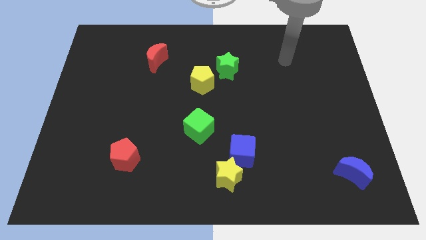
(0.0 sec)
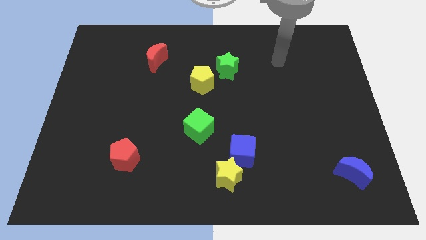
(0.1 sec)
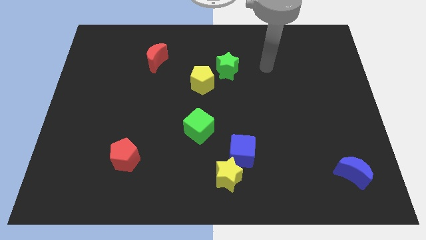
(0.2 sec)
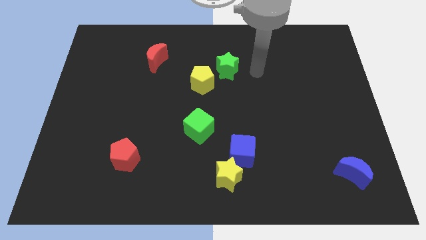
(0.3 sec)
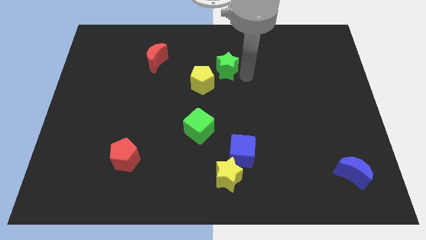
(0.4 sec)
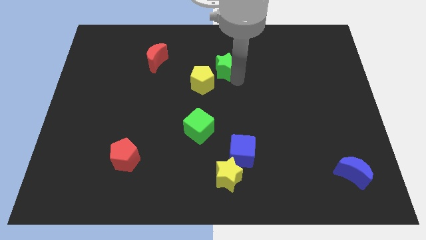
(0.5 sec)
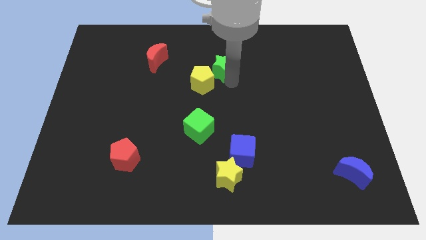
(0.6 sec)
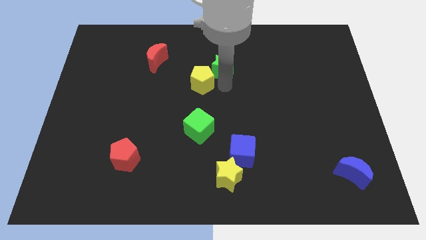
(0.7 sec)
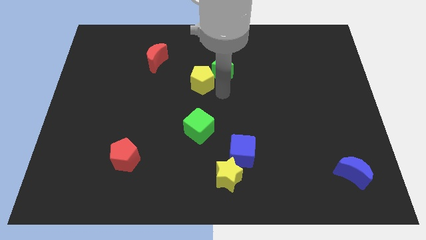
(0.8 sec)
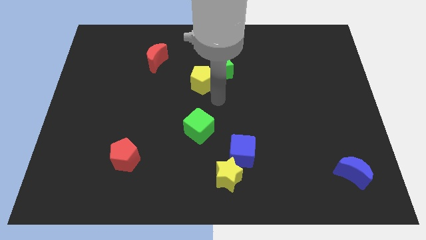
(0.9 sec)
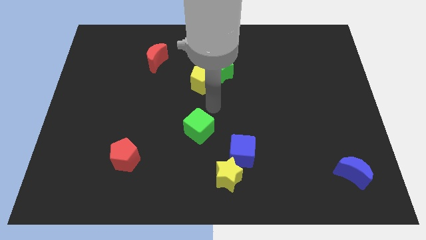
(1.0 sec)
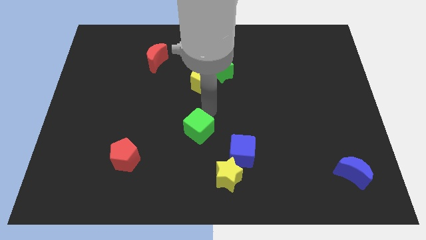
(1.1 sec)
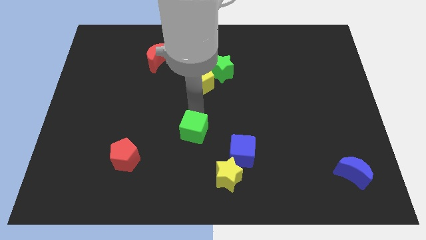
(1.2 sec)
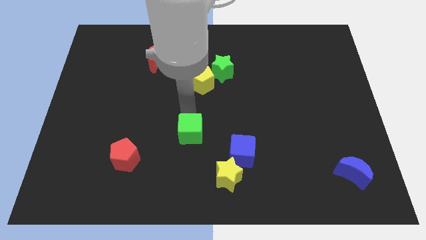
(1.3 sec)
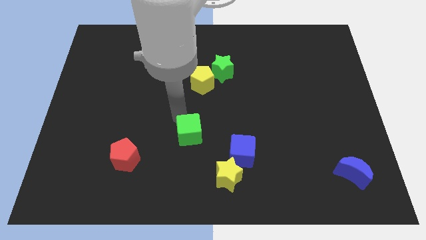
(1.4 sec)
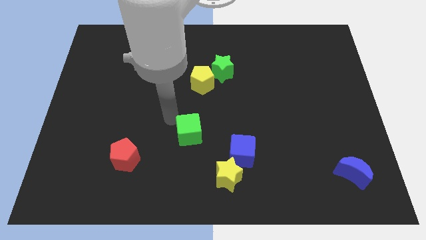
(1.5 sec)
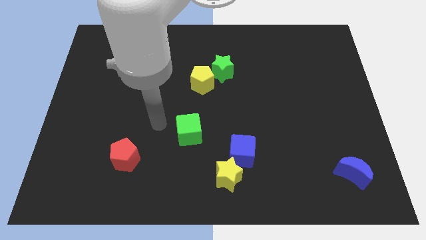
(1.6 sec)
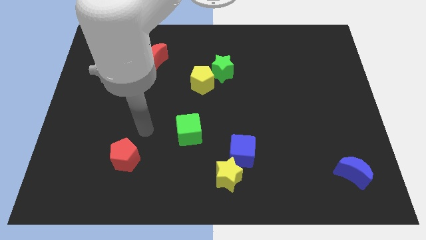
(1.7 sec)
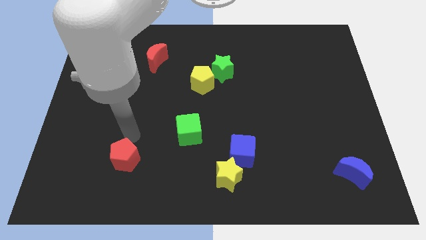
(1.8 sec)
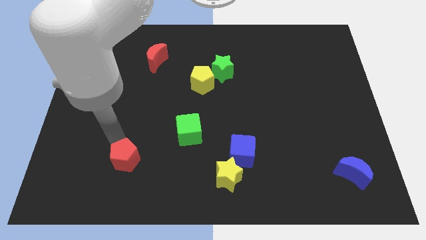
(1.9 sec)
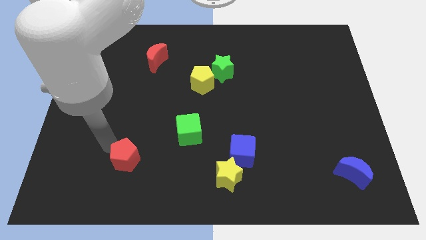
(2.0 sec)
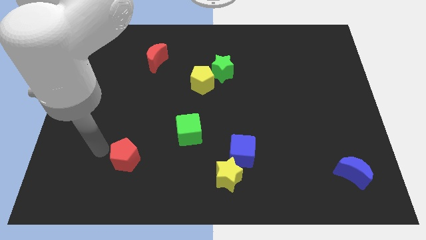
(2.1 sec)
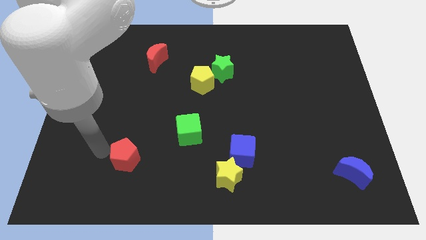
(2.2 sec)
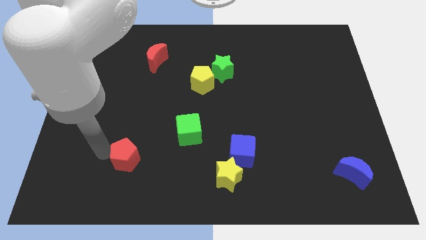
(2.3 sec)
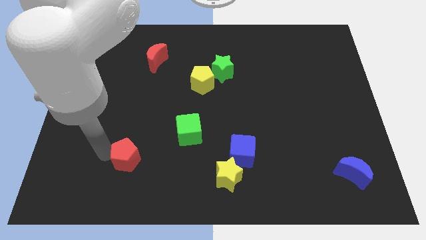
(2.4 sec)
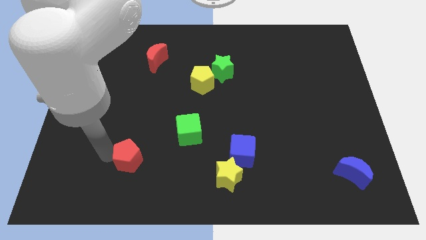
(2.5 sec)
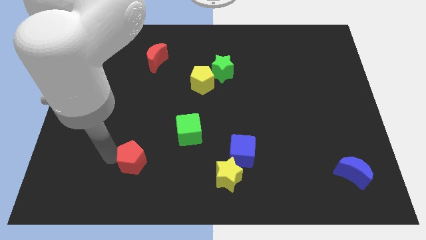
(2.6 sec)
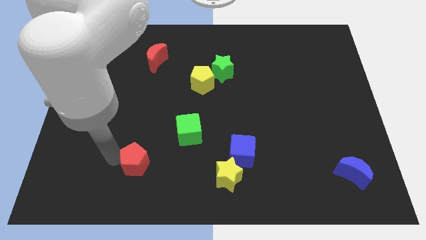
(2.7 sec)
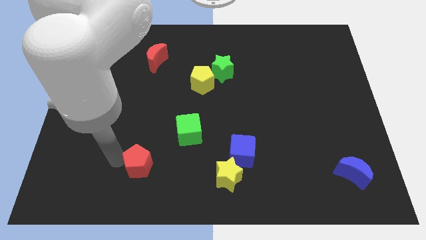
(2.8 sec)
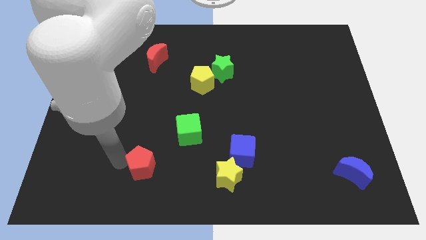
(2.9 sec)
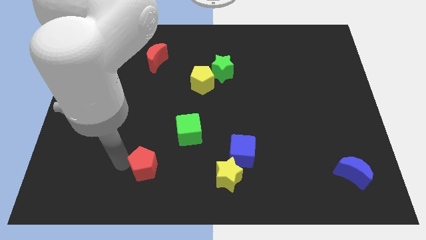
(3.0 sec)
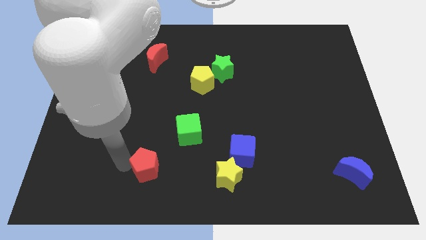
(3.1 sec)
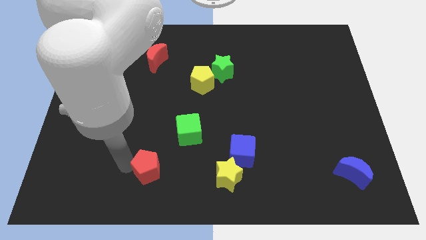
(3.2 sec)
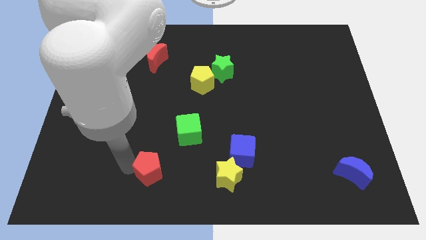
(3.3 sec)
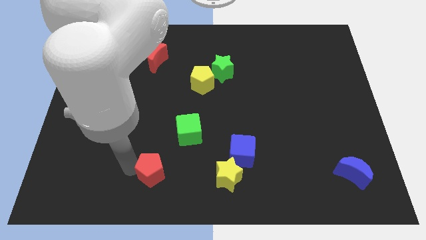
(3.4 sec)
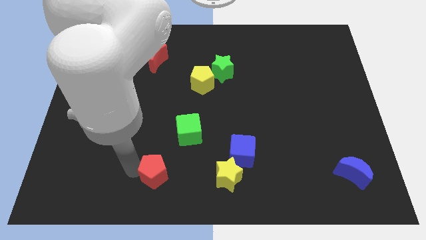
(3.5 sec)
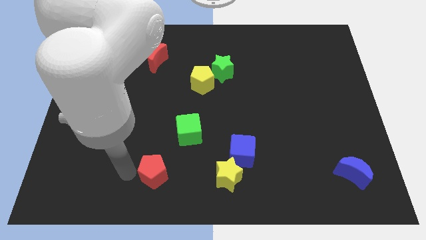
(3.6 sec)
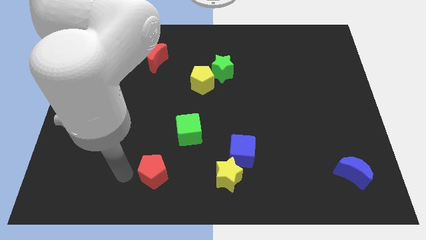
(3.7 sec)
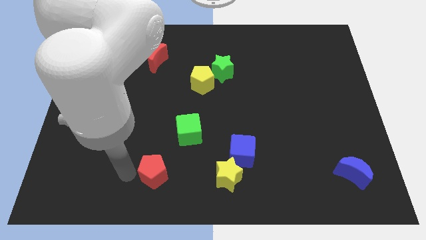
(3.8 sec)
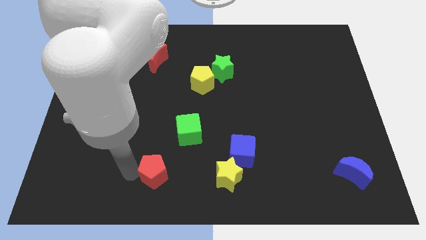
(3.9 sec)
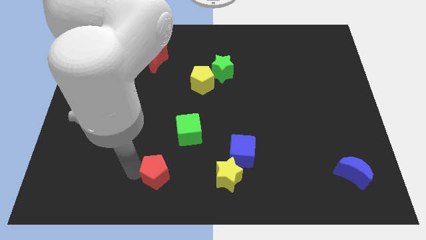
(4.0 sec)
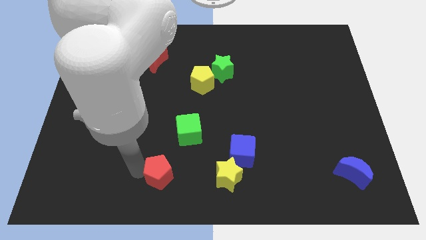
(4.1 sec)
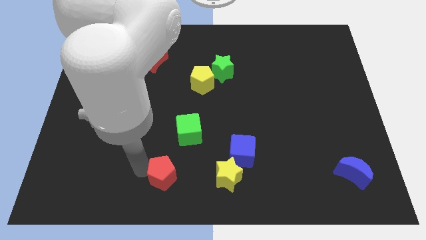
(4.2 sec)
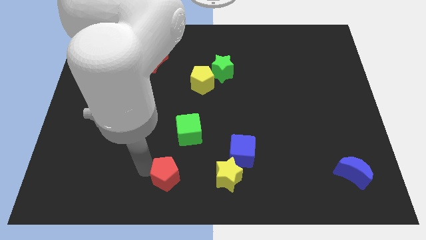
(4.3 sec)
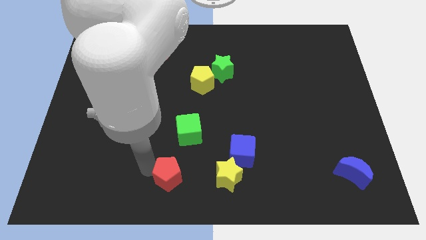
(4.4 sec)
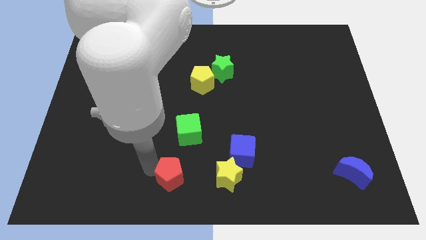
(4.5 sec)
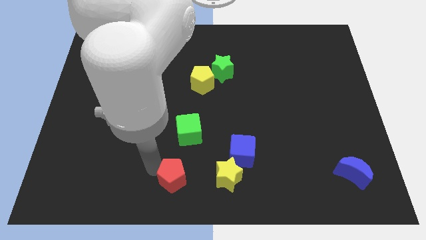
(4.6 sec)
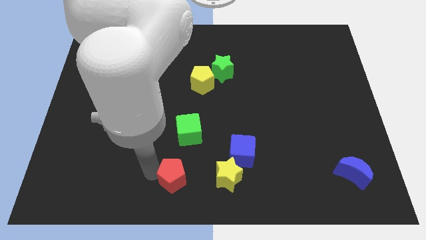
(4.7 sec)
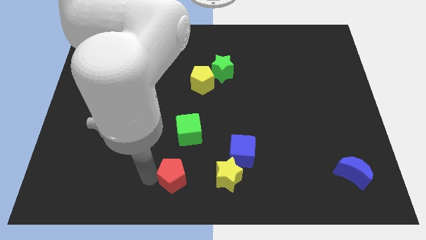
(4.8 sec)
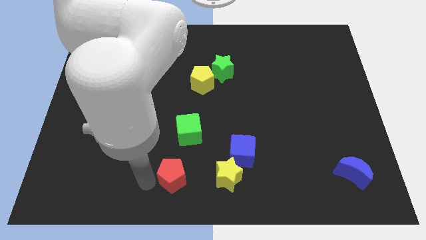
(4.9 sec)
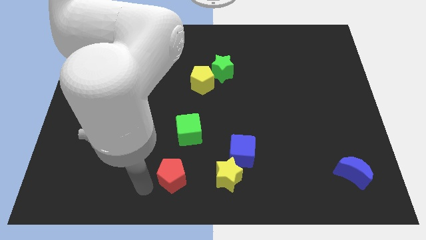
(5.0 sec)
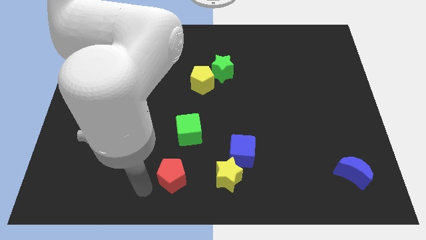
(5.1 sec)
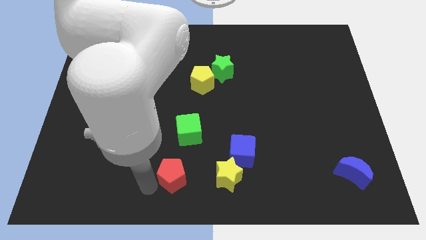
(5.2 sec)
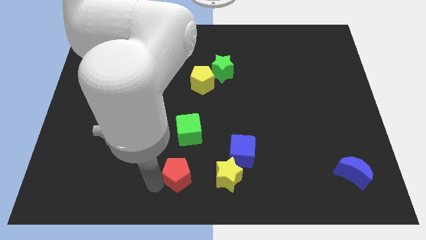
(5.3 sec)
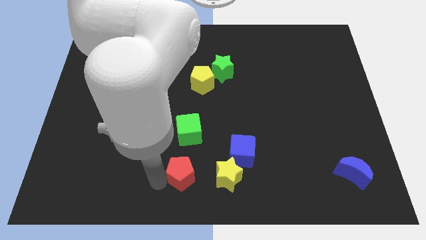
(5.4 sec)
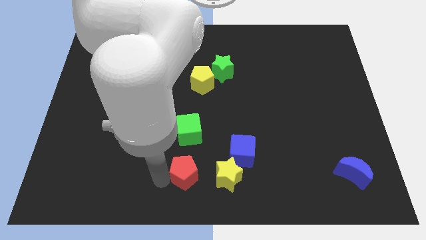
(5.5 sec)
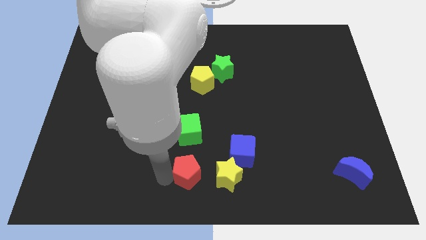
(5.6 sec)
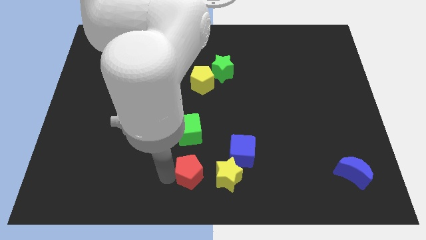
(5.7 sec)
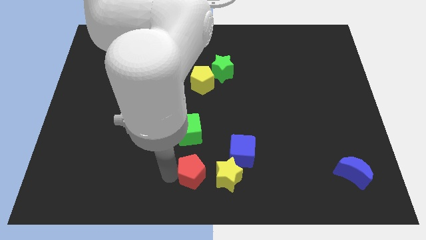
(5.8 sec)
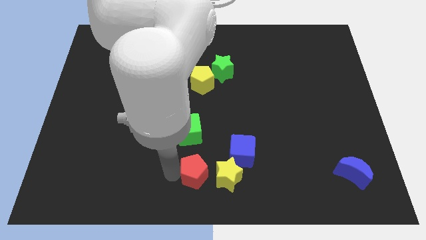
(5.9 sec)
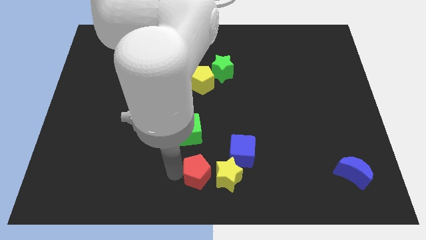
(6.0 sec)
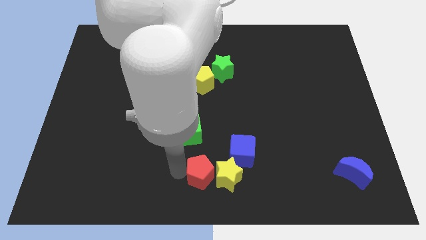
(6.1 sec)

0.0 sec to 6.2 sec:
push the red pentagon close to the yellow star

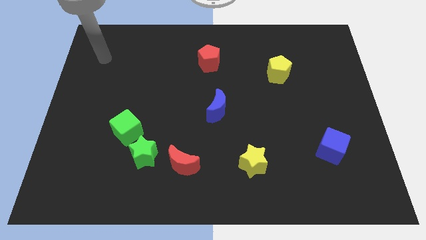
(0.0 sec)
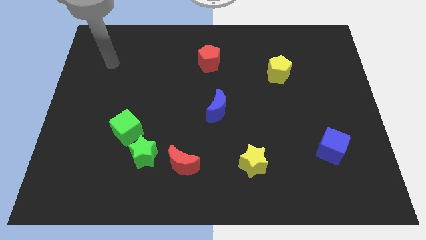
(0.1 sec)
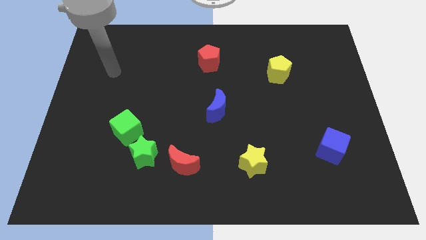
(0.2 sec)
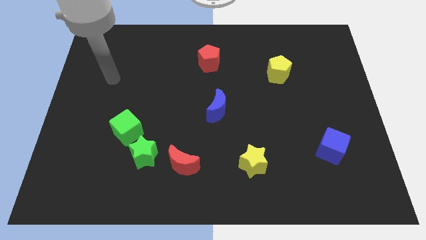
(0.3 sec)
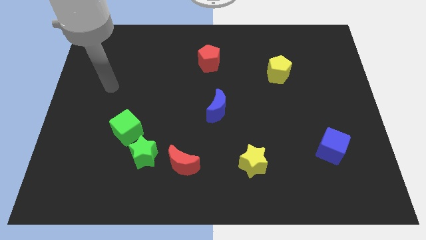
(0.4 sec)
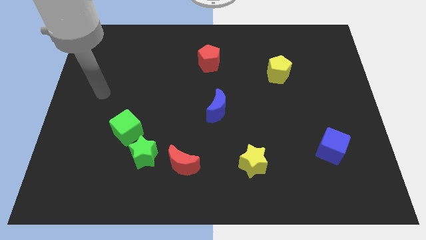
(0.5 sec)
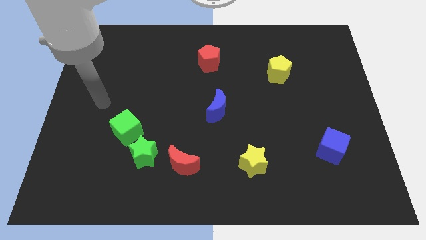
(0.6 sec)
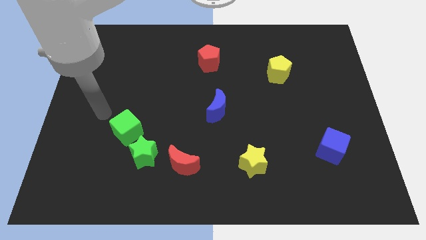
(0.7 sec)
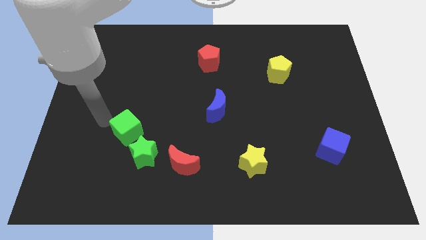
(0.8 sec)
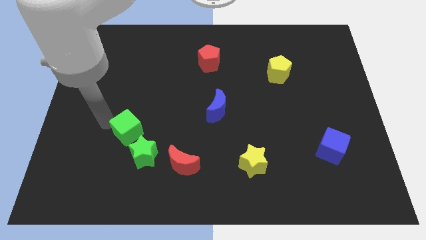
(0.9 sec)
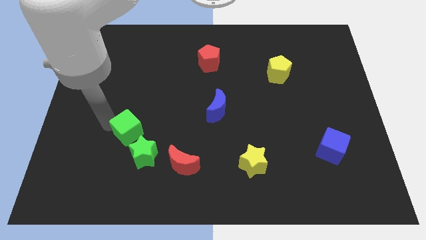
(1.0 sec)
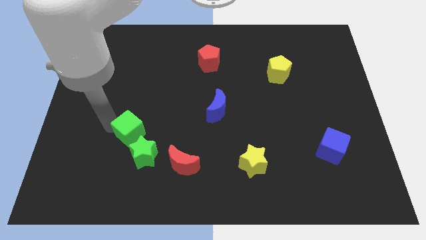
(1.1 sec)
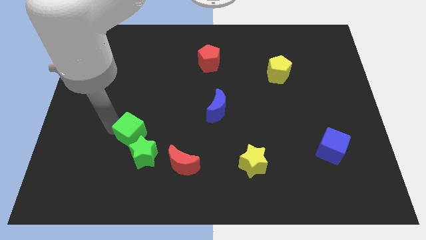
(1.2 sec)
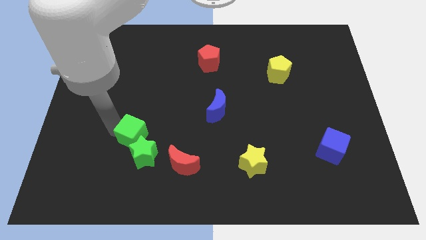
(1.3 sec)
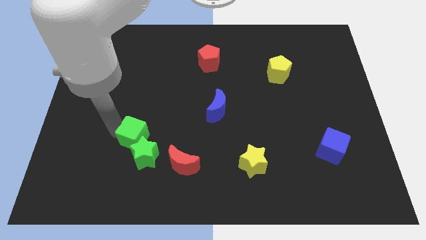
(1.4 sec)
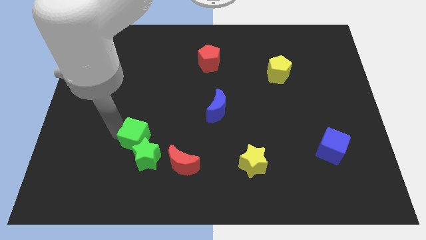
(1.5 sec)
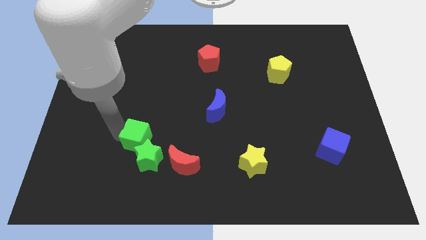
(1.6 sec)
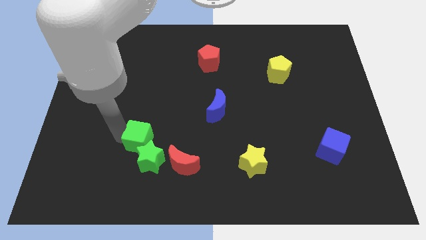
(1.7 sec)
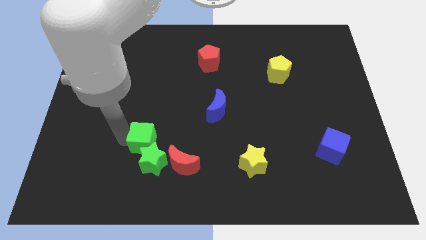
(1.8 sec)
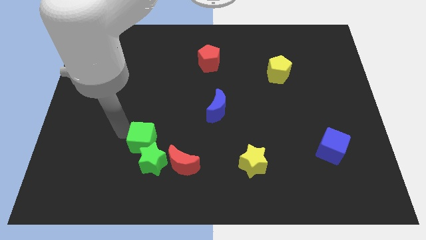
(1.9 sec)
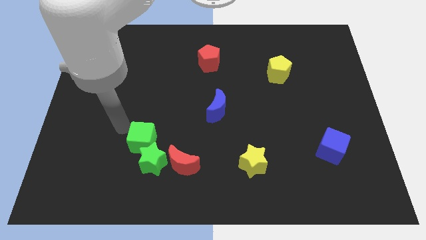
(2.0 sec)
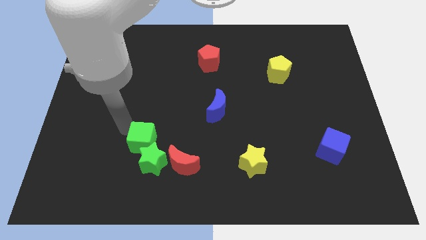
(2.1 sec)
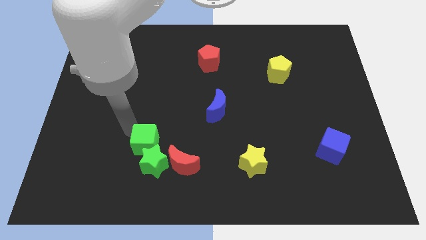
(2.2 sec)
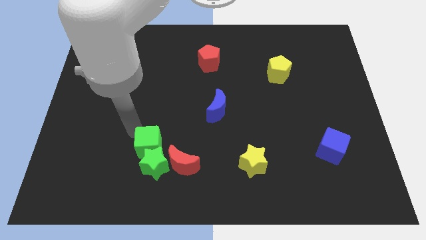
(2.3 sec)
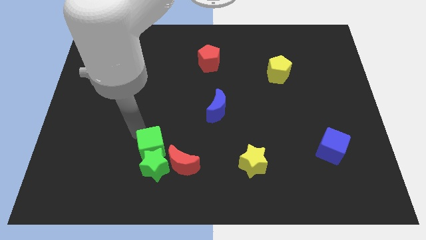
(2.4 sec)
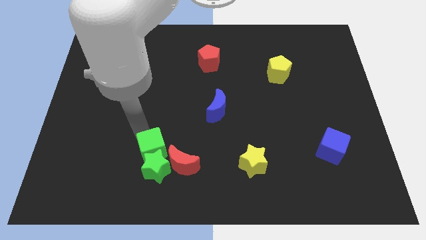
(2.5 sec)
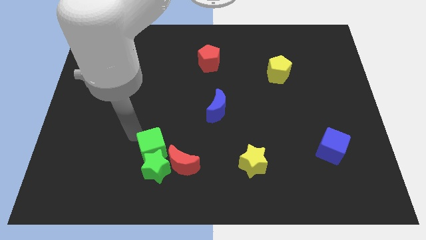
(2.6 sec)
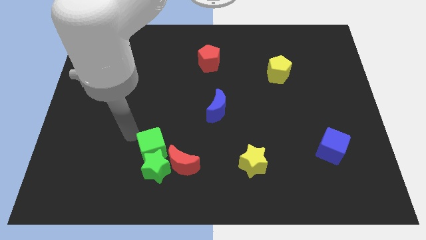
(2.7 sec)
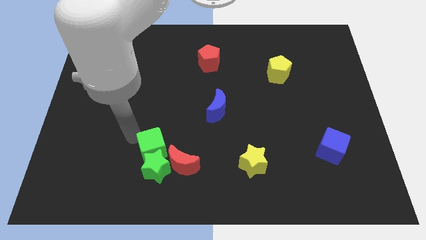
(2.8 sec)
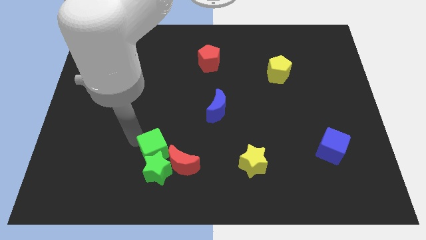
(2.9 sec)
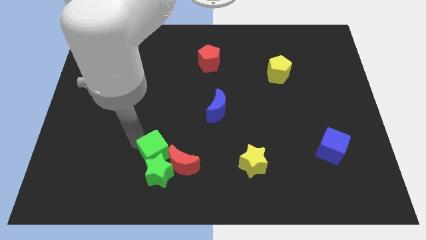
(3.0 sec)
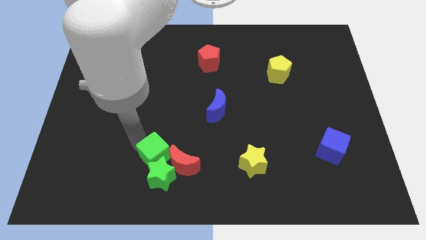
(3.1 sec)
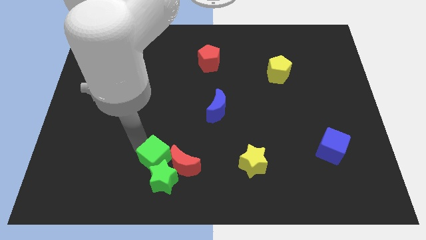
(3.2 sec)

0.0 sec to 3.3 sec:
slide the green cube to the red moon
